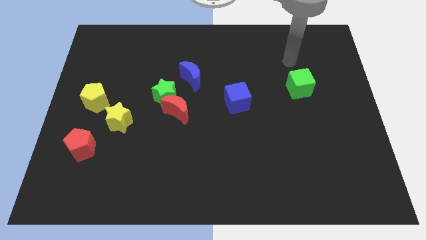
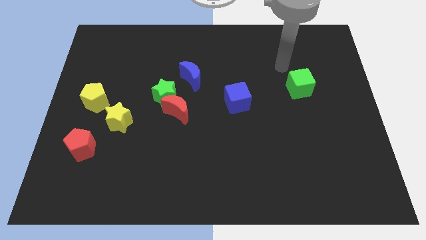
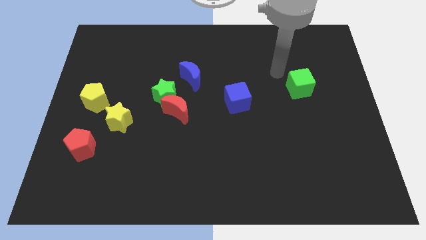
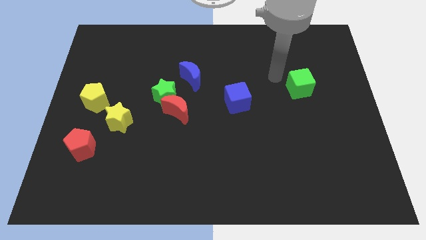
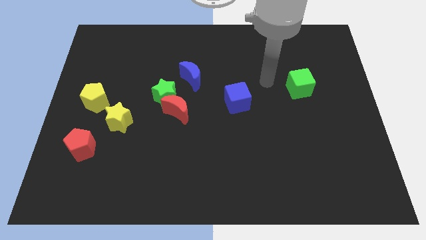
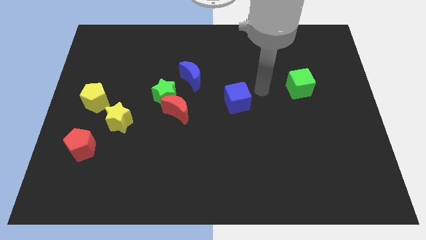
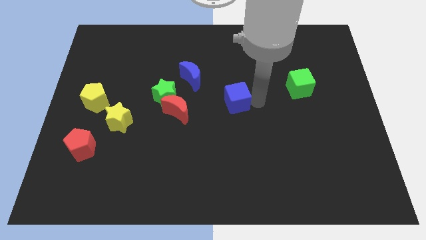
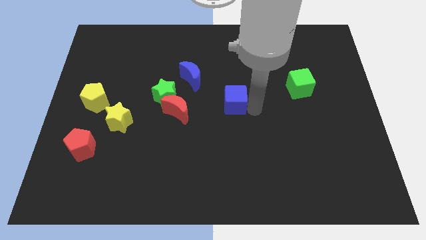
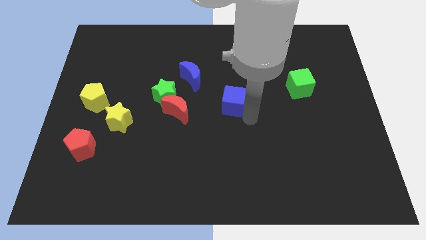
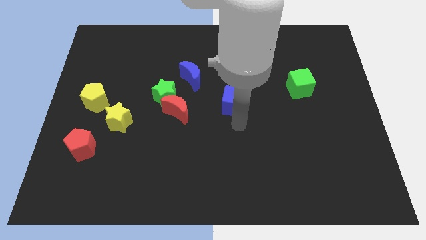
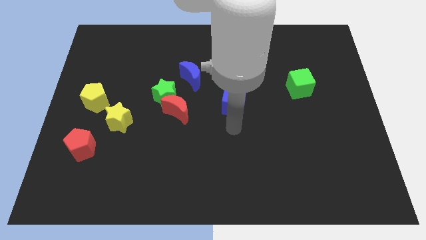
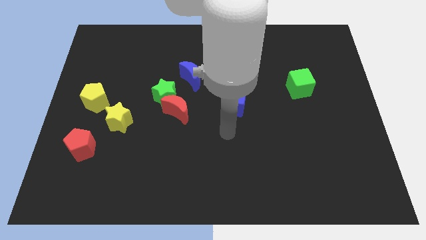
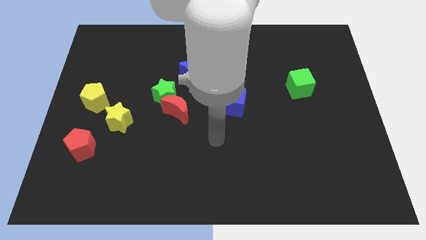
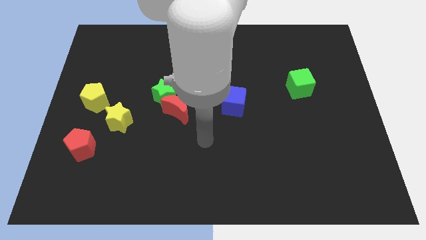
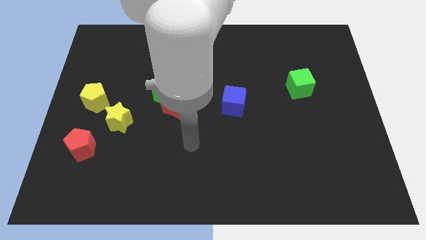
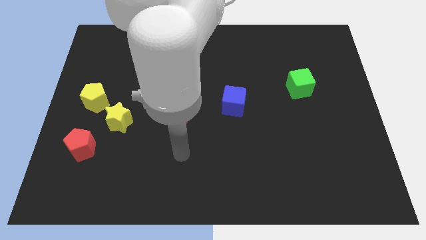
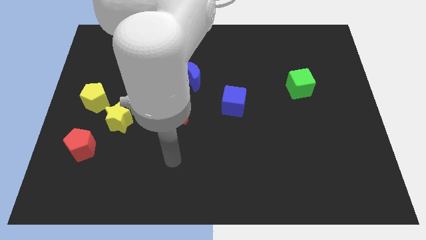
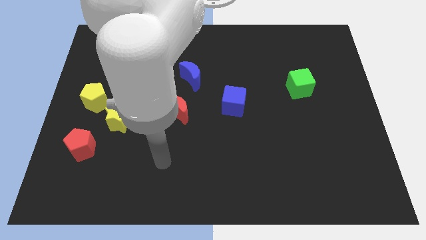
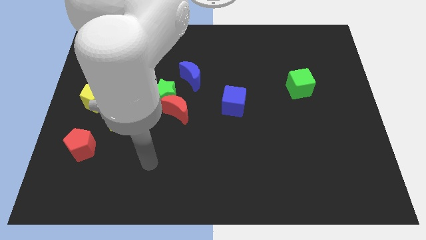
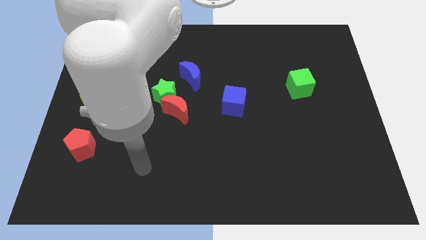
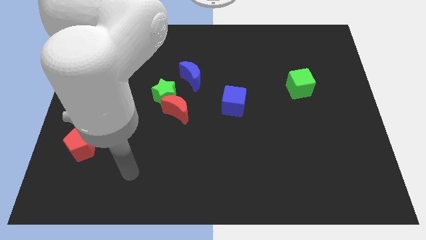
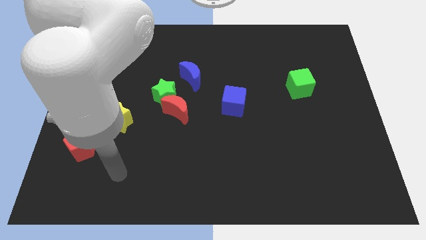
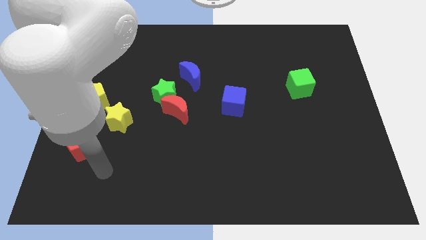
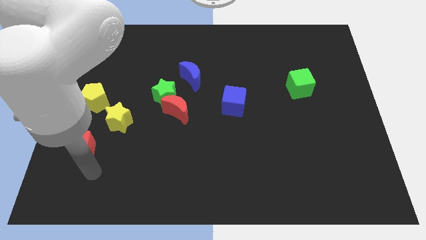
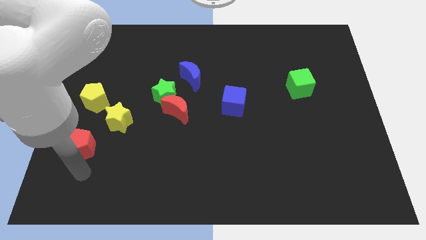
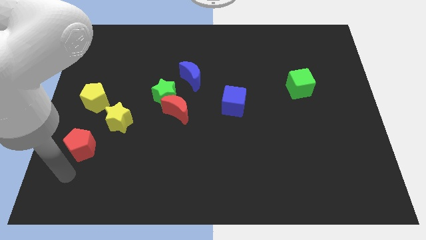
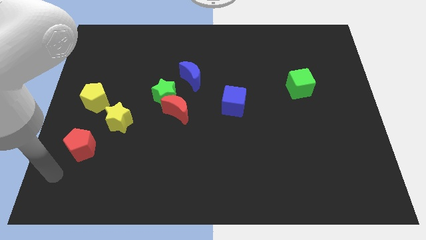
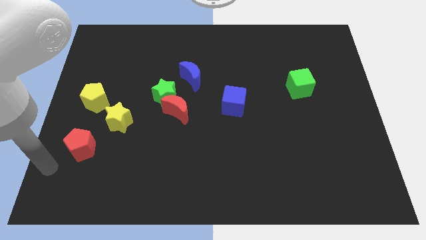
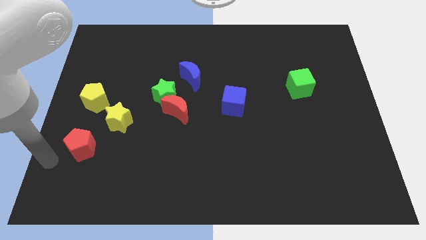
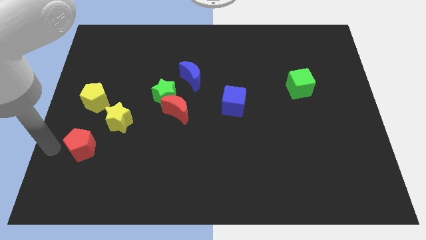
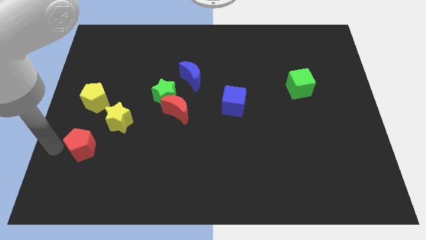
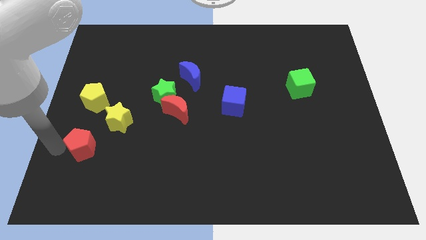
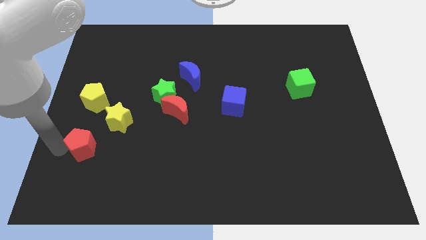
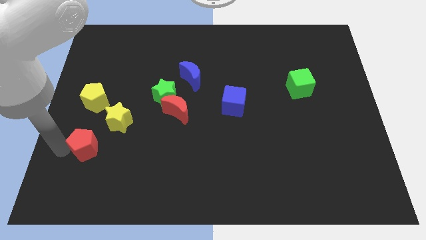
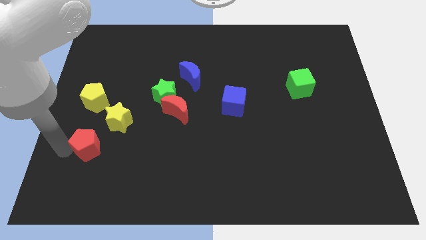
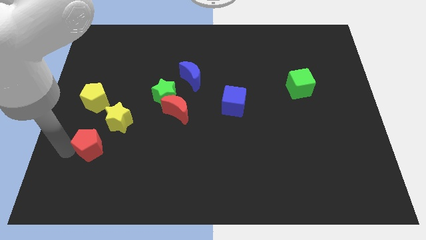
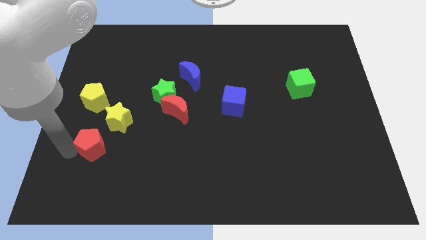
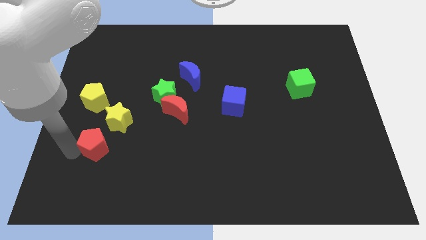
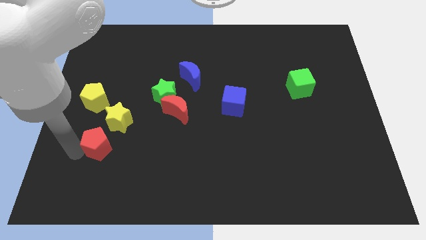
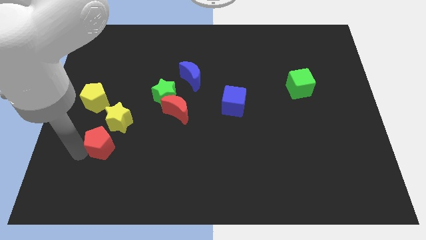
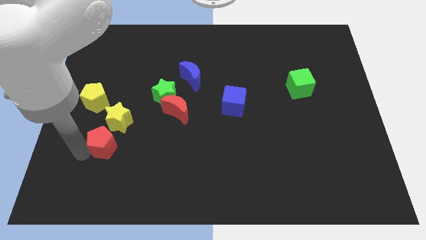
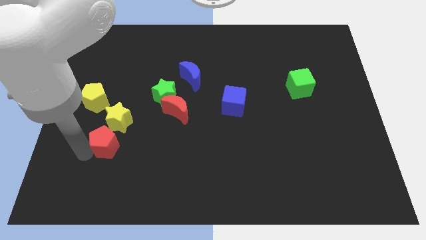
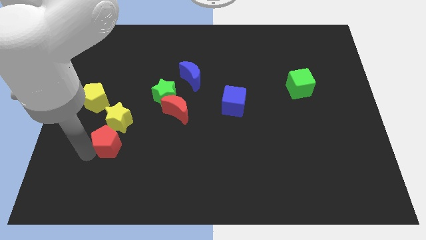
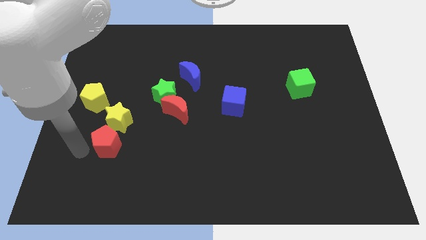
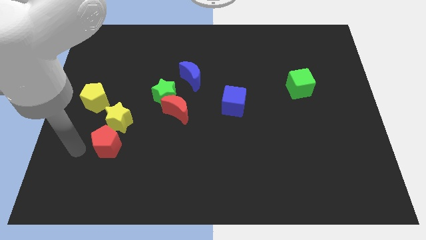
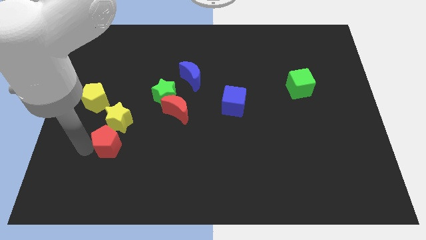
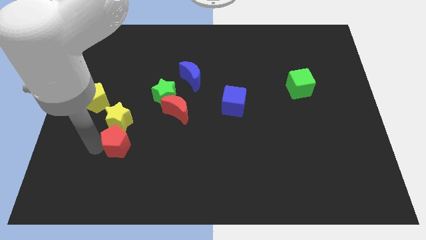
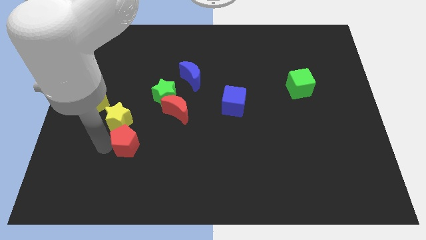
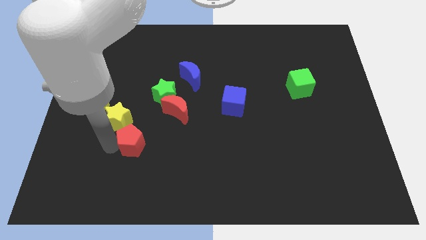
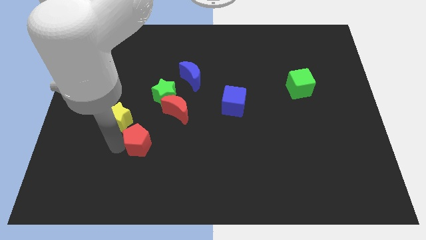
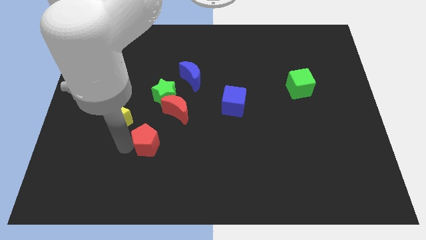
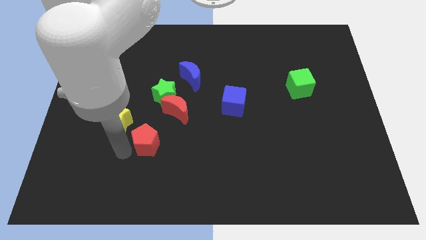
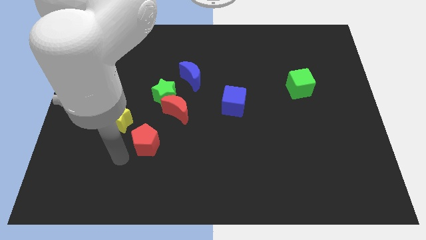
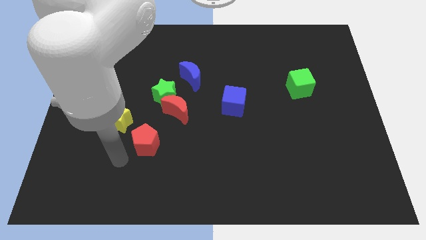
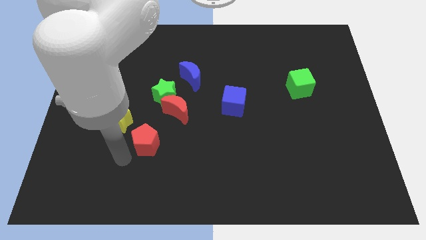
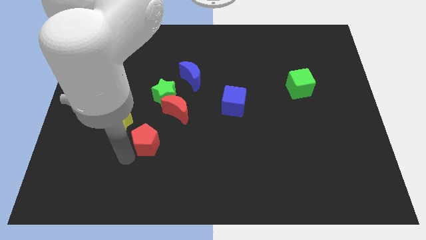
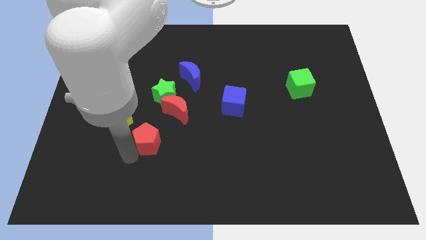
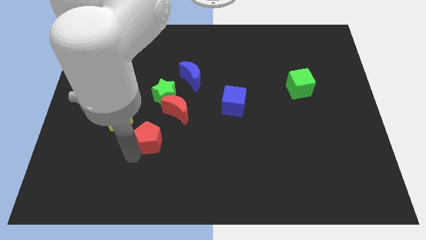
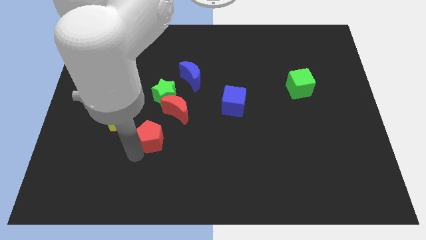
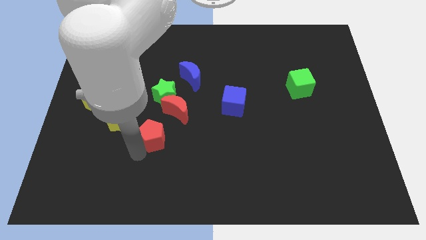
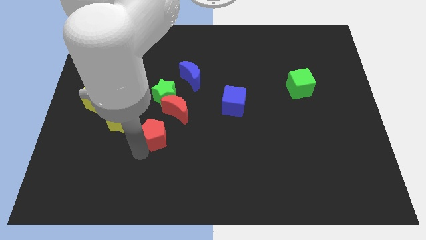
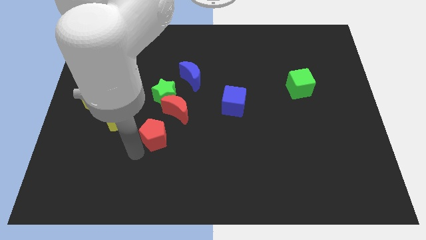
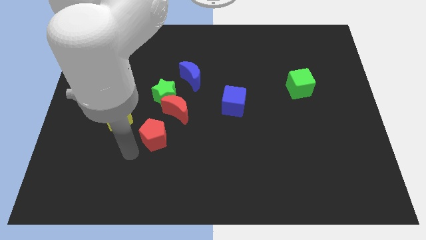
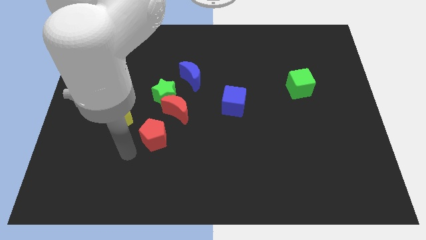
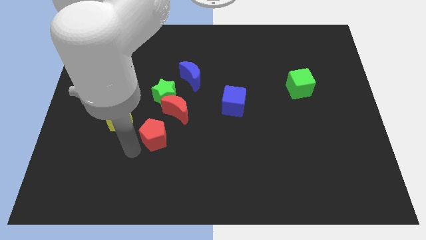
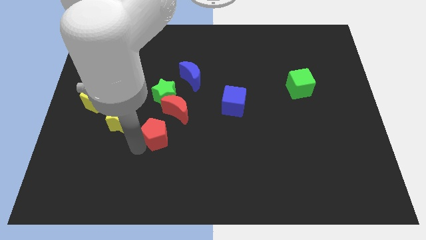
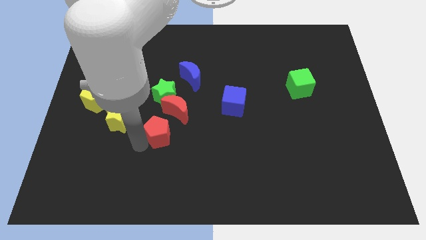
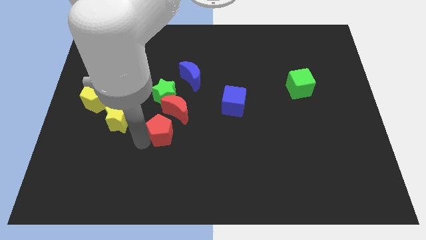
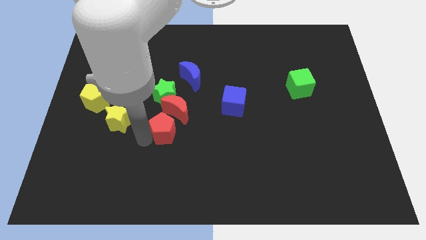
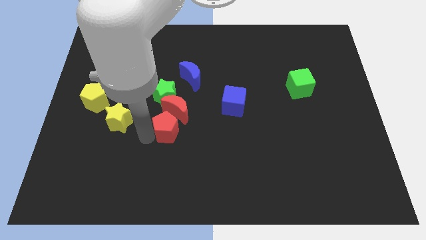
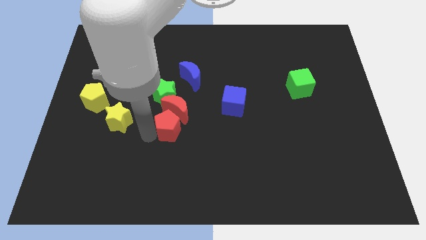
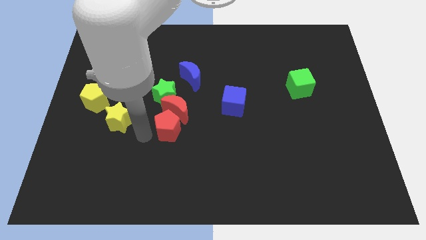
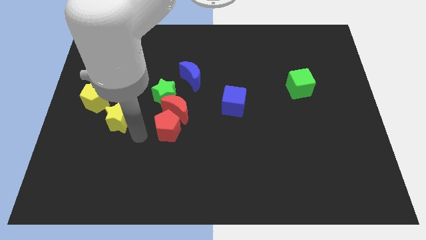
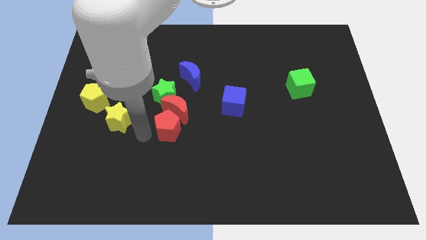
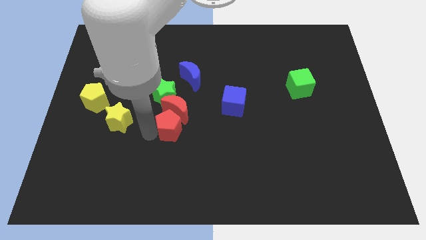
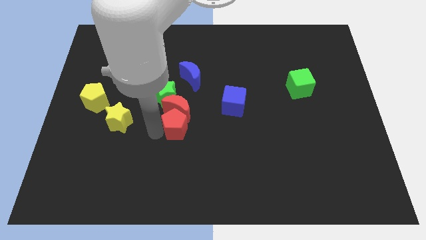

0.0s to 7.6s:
move the red pentagon to the center of the board
